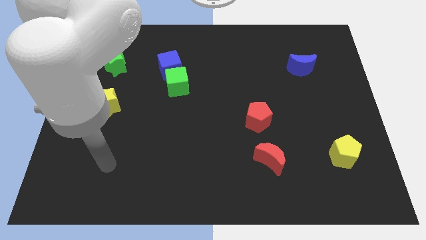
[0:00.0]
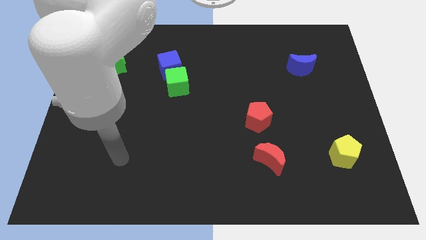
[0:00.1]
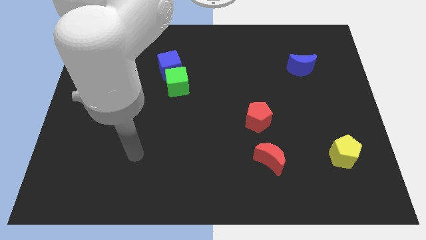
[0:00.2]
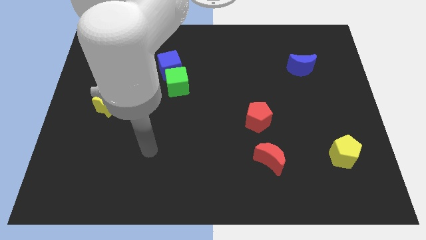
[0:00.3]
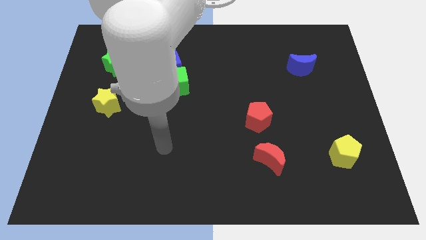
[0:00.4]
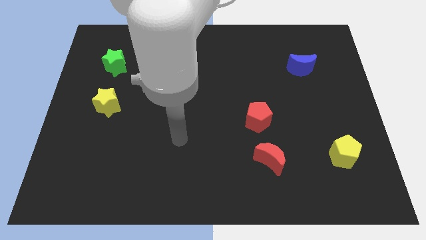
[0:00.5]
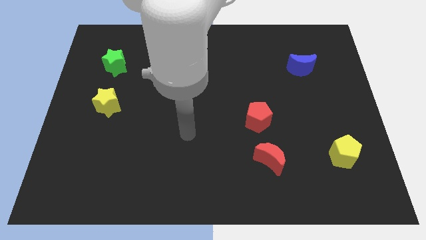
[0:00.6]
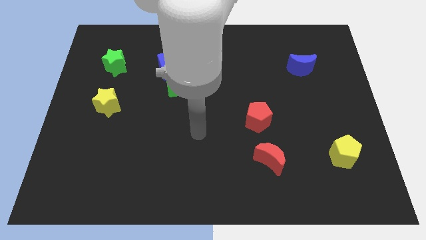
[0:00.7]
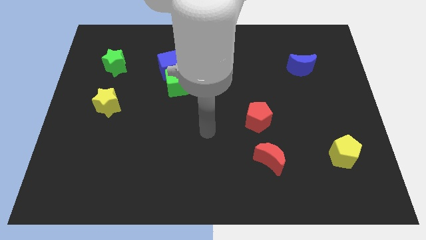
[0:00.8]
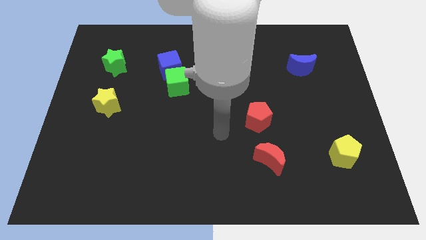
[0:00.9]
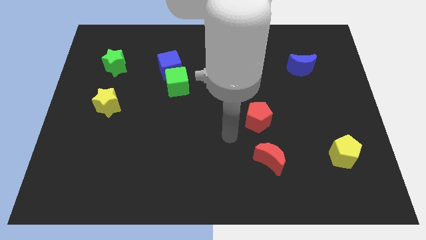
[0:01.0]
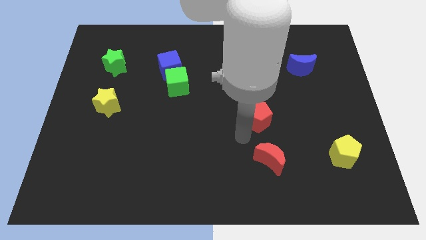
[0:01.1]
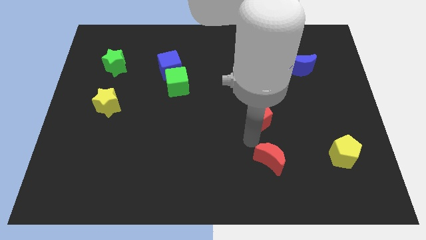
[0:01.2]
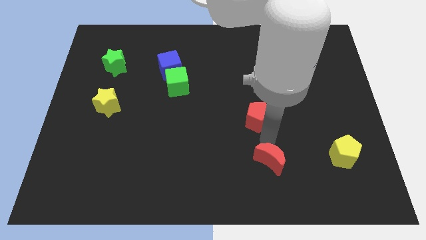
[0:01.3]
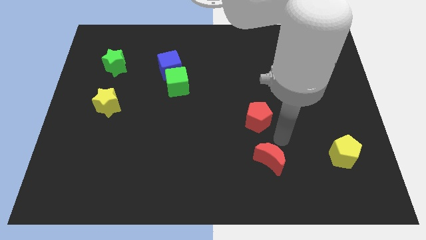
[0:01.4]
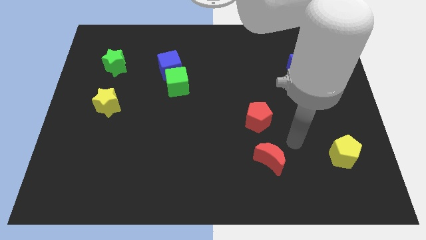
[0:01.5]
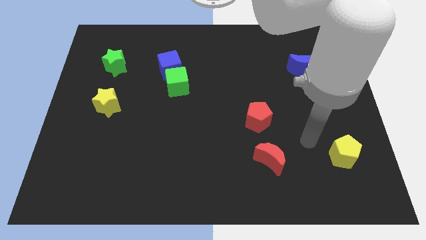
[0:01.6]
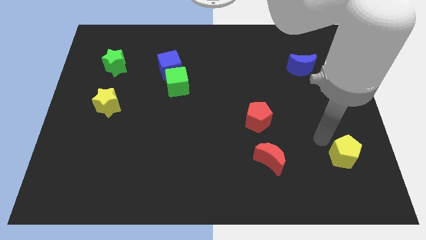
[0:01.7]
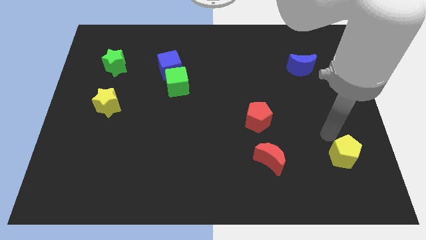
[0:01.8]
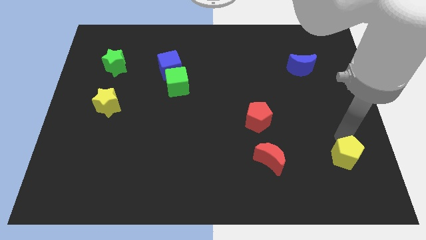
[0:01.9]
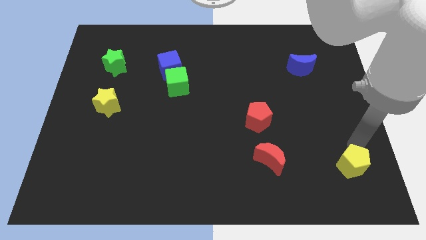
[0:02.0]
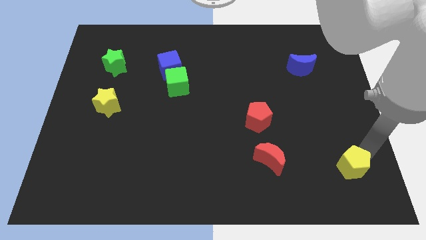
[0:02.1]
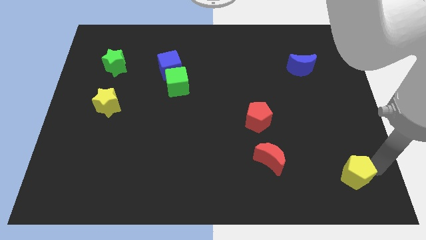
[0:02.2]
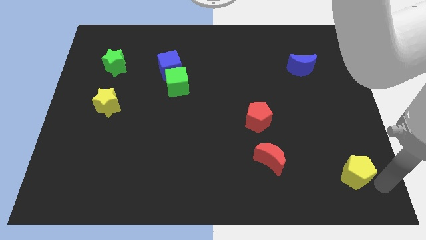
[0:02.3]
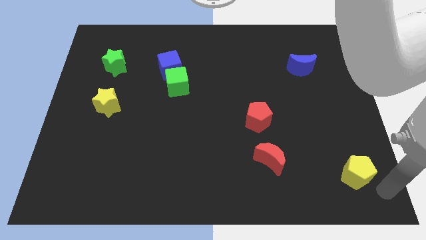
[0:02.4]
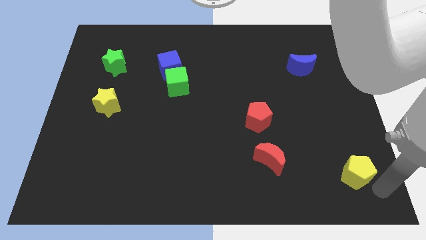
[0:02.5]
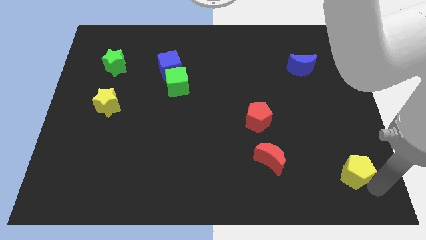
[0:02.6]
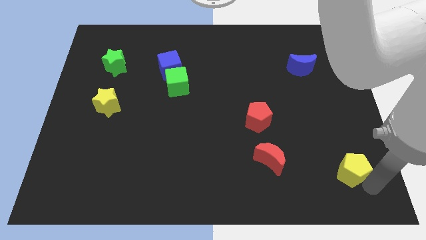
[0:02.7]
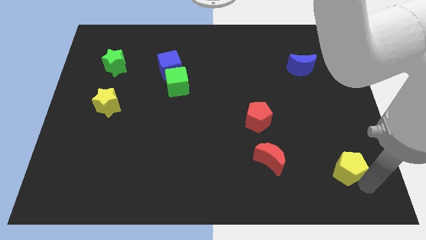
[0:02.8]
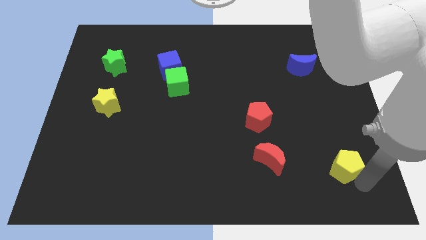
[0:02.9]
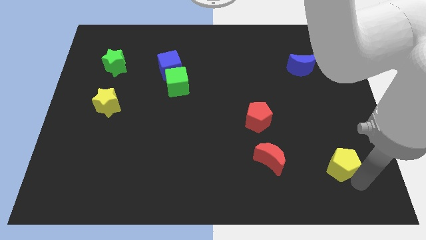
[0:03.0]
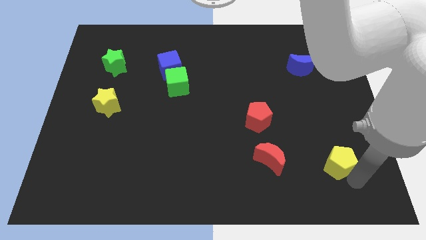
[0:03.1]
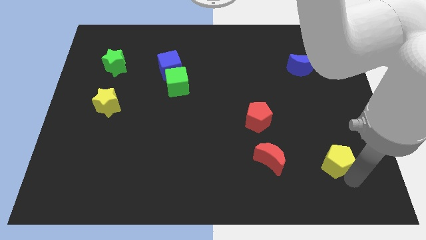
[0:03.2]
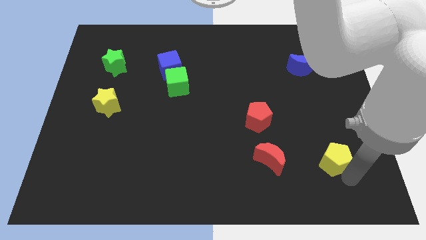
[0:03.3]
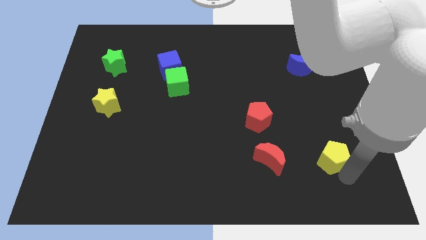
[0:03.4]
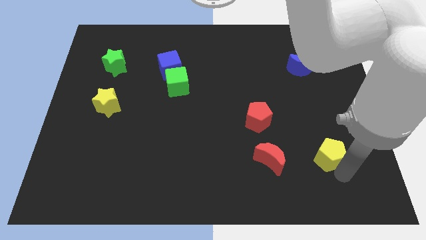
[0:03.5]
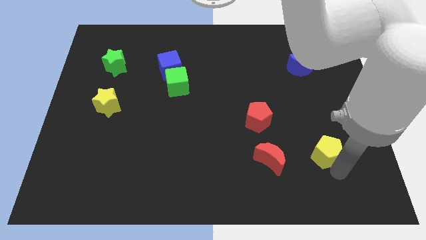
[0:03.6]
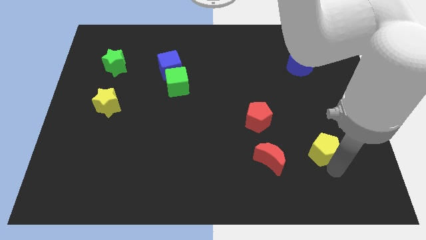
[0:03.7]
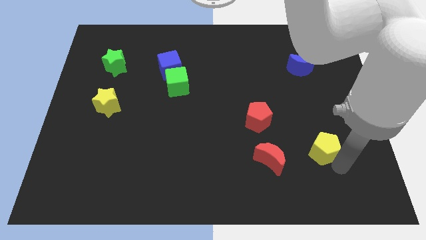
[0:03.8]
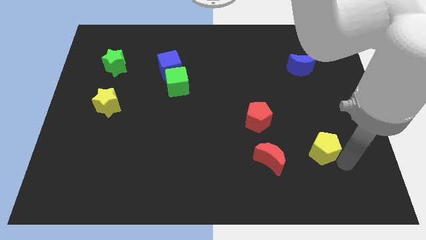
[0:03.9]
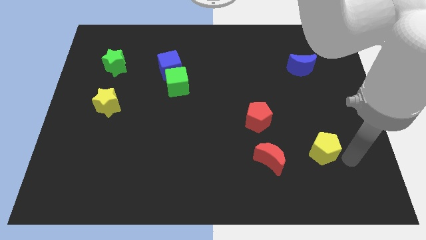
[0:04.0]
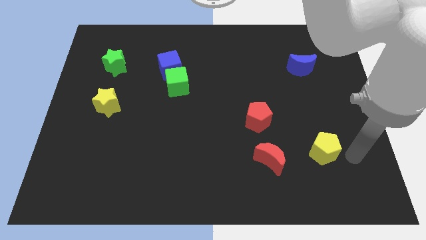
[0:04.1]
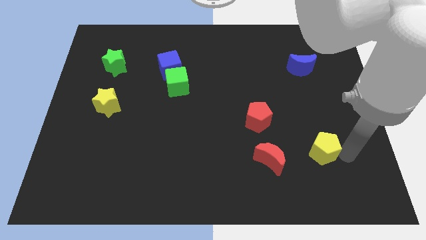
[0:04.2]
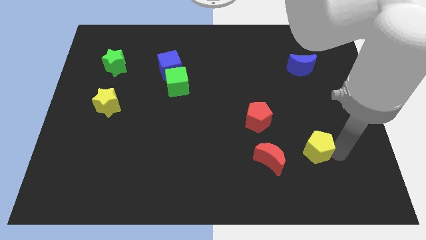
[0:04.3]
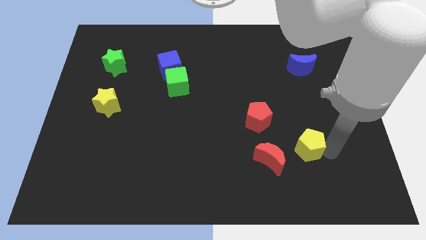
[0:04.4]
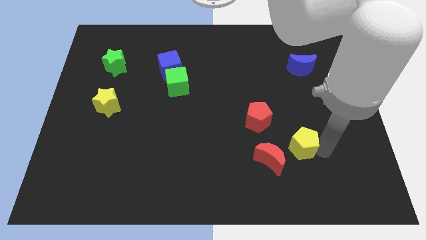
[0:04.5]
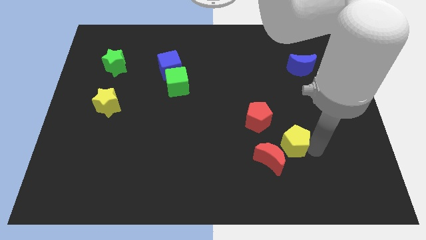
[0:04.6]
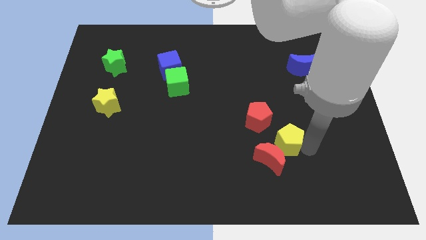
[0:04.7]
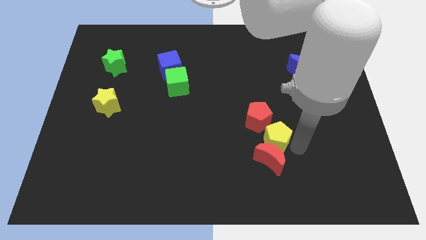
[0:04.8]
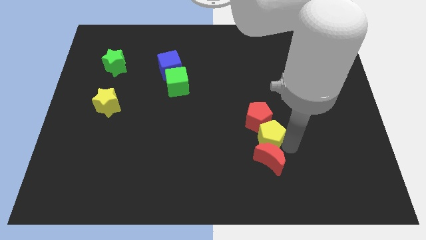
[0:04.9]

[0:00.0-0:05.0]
slide the yellow pentagon towards the red pentagon

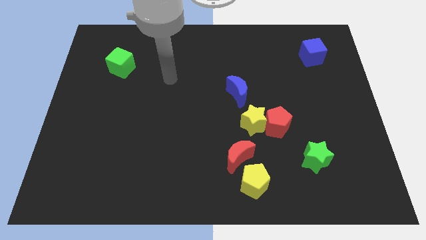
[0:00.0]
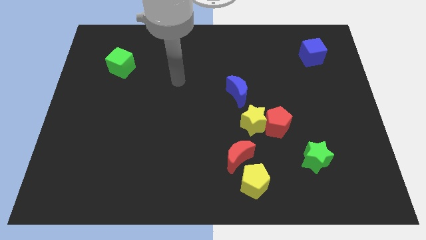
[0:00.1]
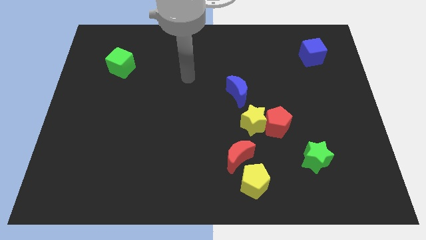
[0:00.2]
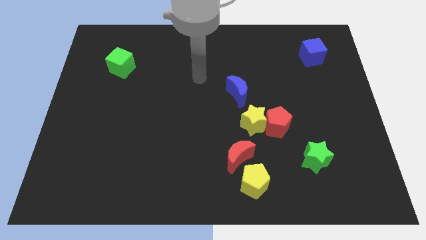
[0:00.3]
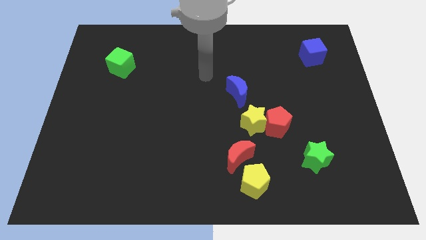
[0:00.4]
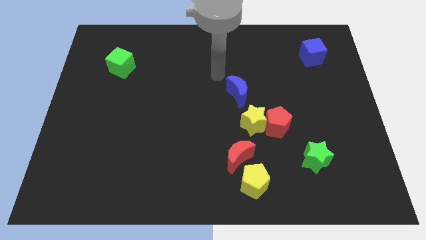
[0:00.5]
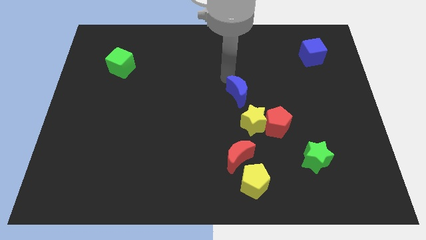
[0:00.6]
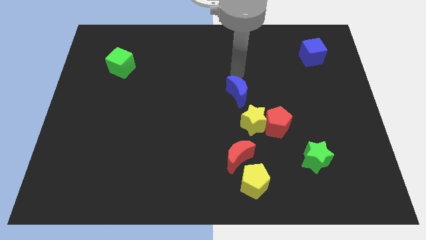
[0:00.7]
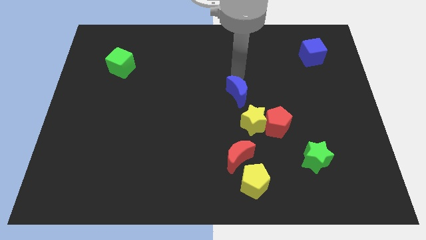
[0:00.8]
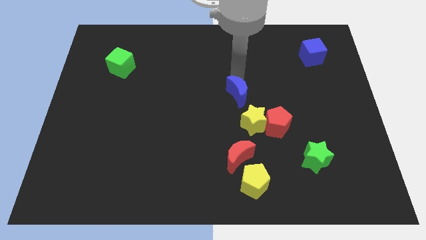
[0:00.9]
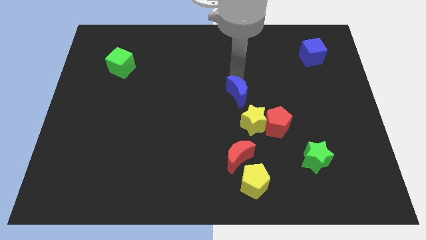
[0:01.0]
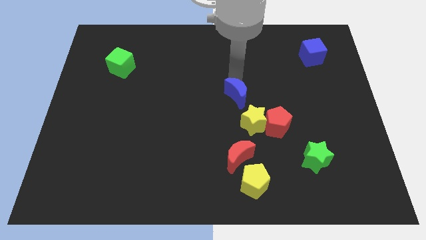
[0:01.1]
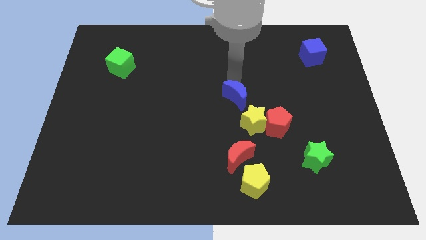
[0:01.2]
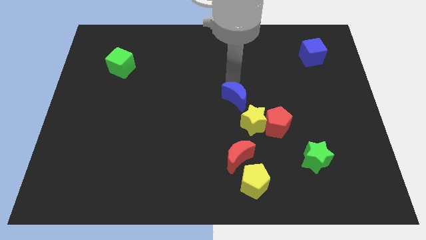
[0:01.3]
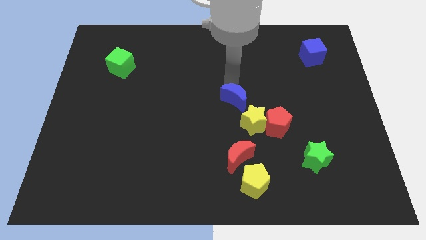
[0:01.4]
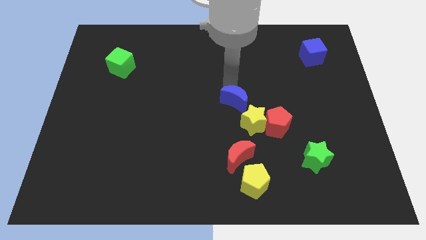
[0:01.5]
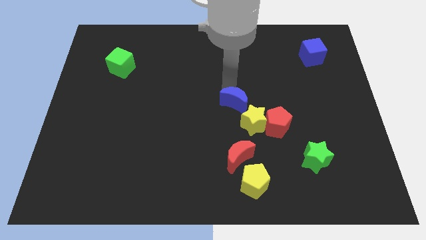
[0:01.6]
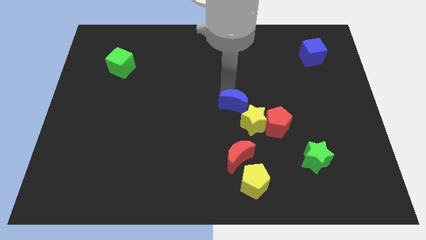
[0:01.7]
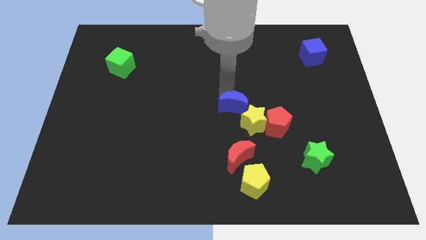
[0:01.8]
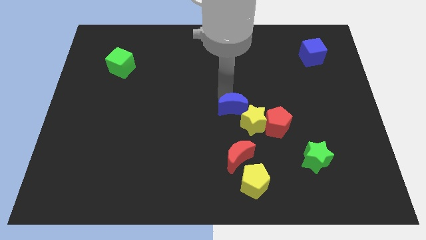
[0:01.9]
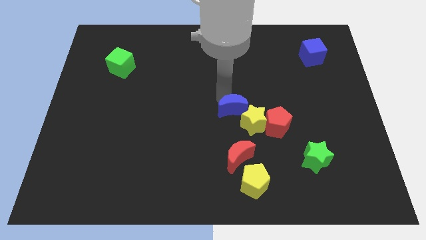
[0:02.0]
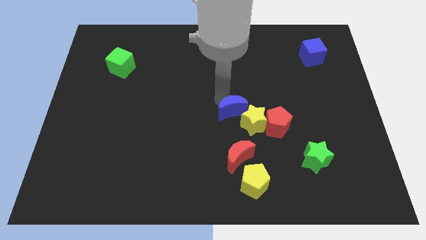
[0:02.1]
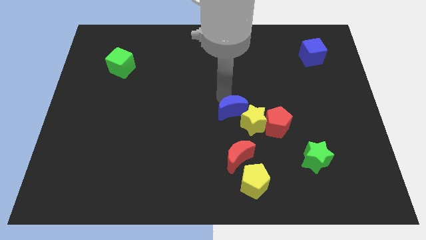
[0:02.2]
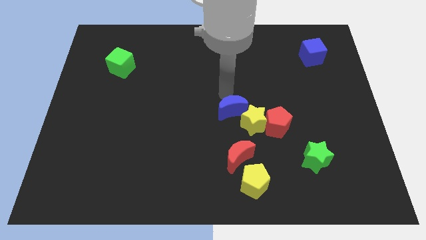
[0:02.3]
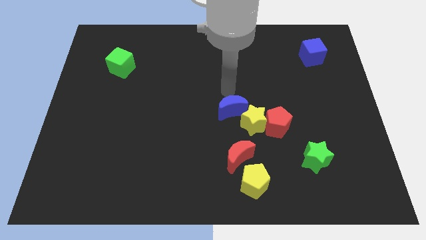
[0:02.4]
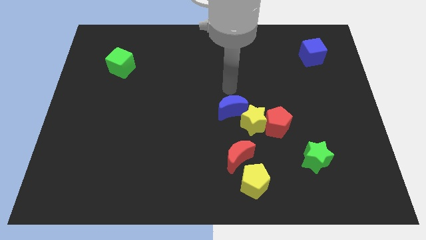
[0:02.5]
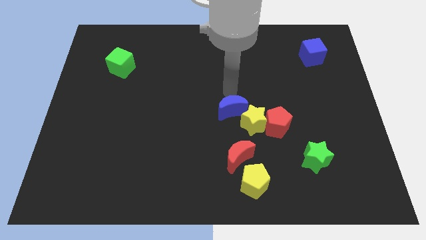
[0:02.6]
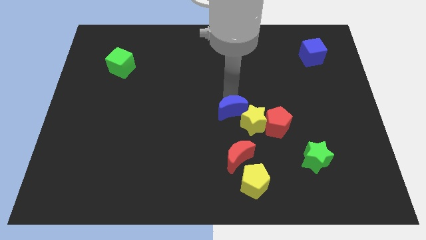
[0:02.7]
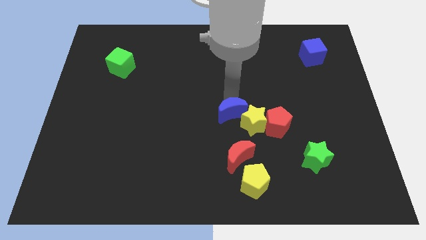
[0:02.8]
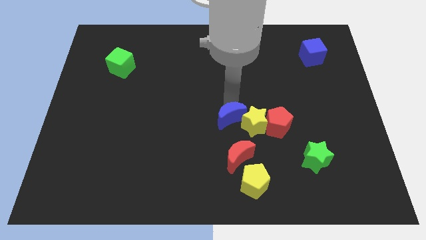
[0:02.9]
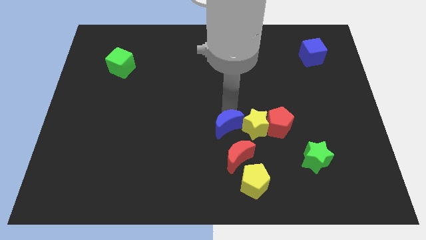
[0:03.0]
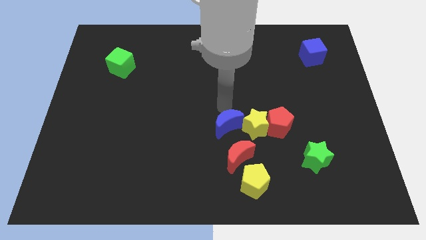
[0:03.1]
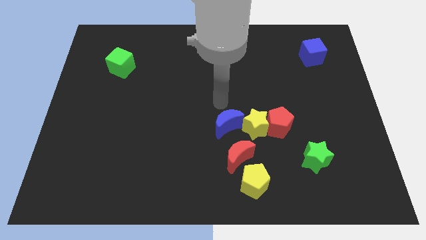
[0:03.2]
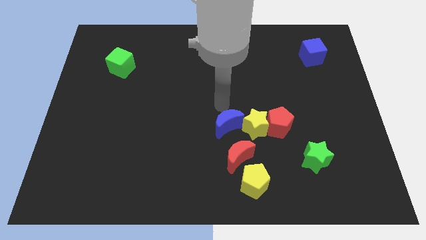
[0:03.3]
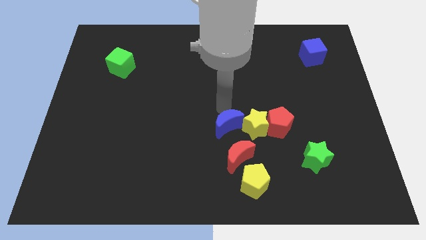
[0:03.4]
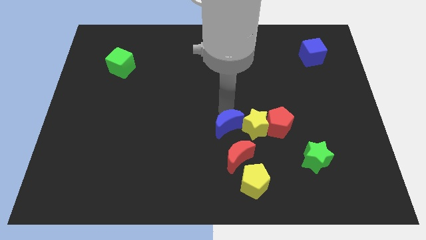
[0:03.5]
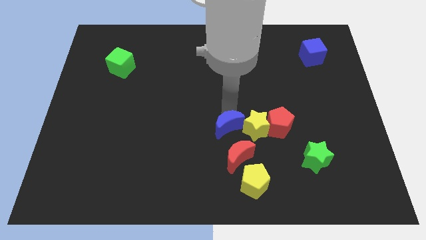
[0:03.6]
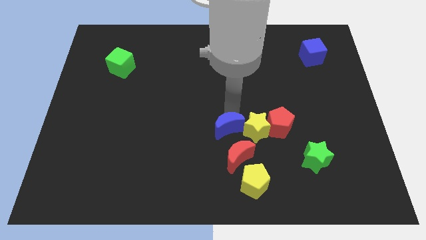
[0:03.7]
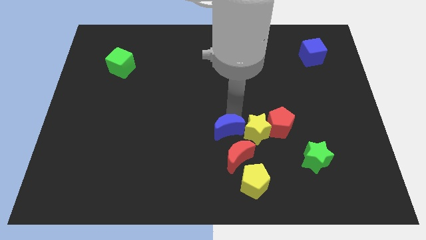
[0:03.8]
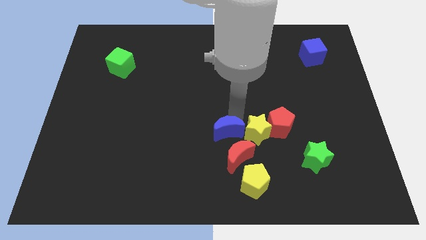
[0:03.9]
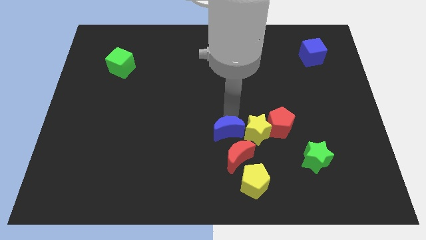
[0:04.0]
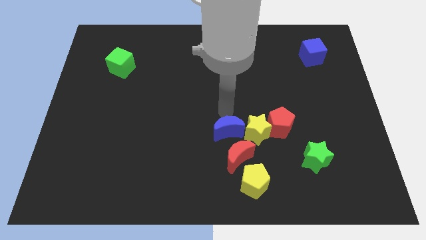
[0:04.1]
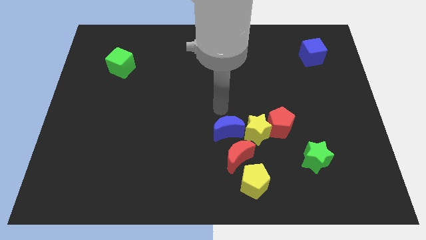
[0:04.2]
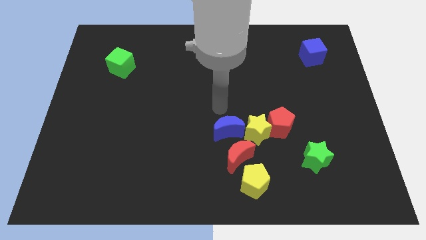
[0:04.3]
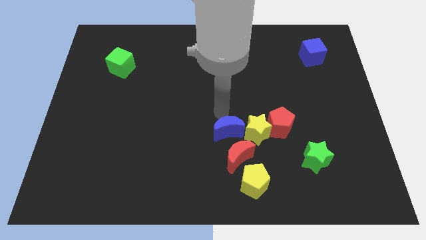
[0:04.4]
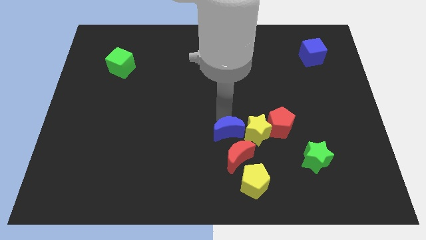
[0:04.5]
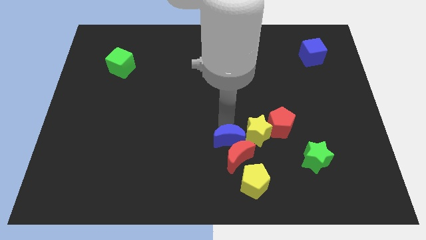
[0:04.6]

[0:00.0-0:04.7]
put the blue moon to the red moon
